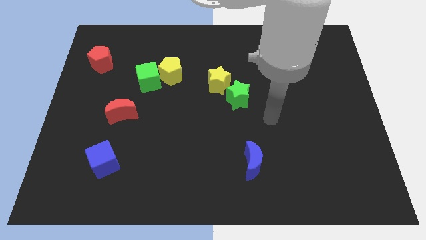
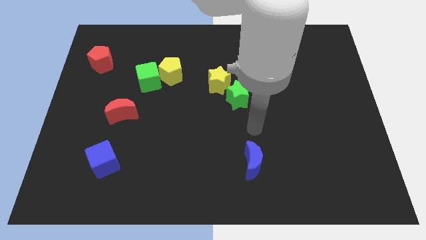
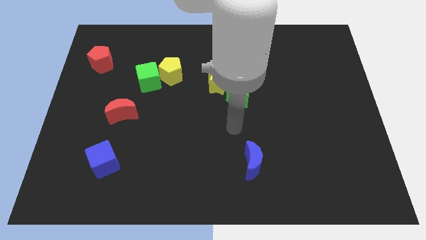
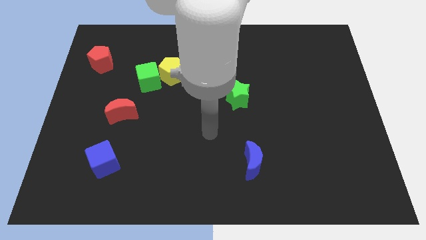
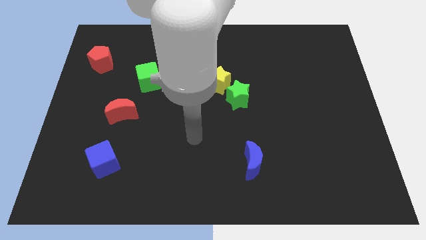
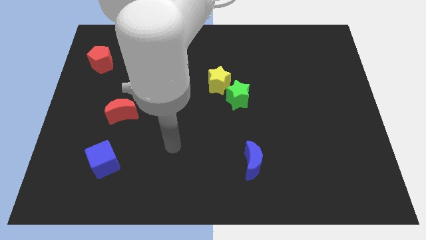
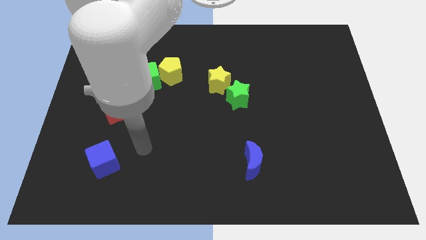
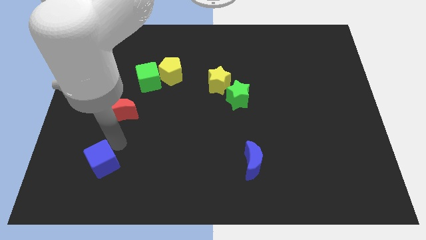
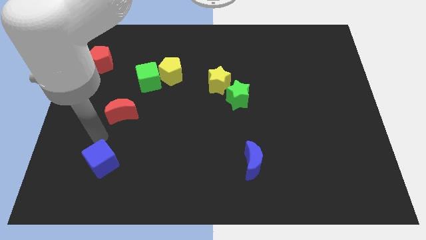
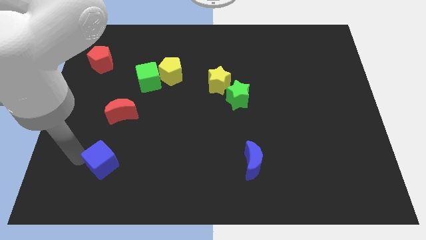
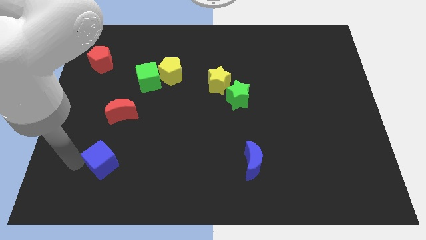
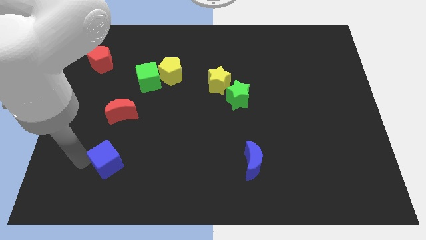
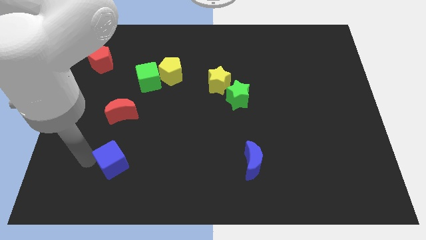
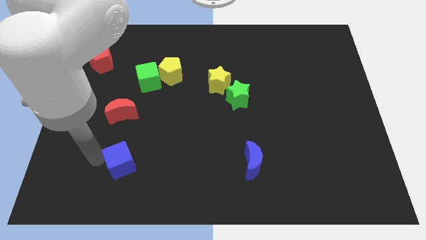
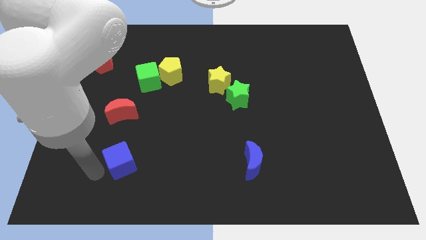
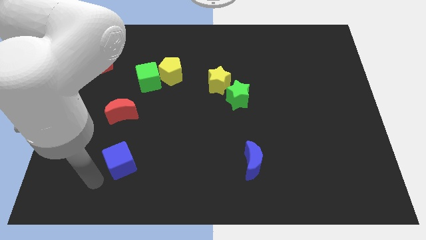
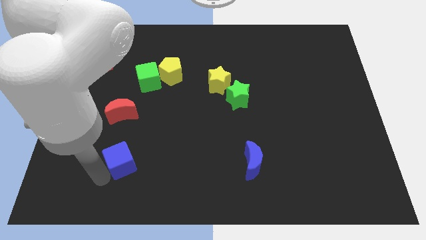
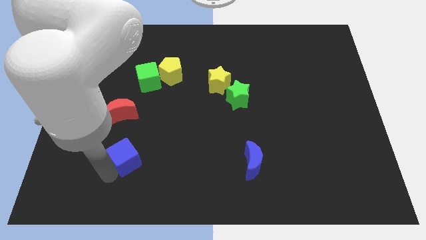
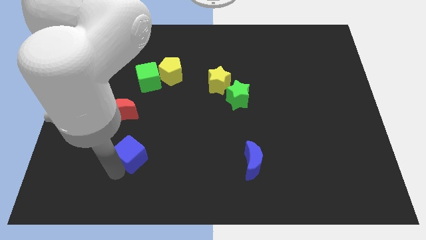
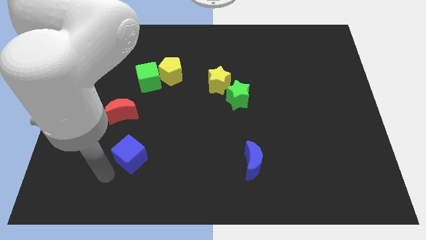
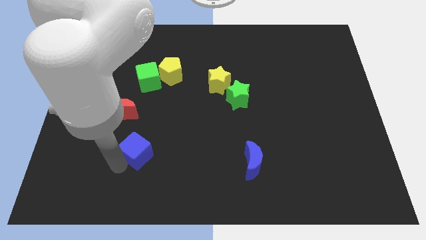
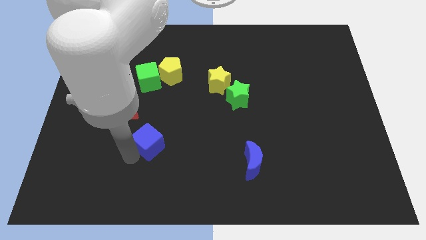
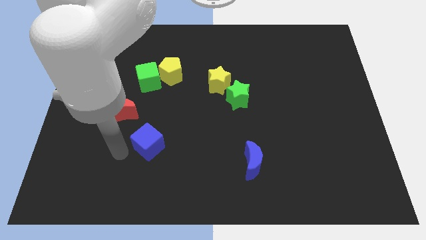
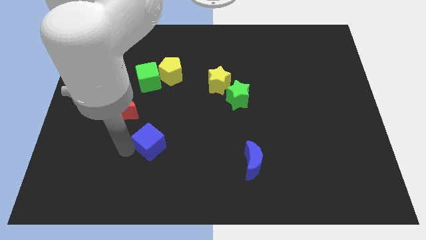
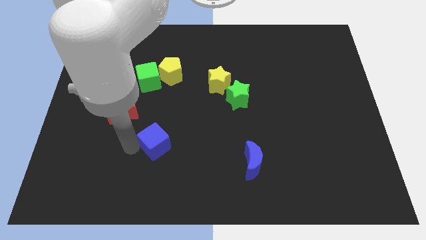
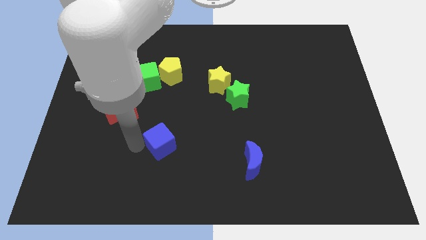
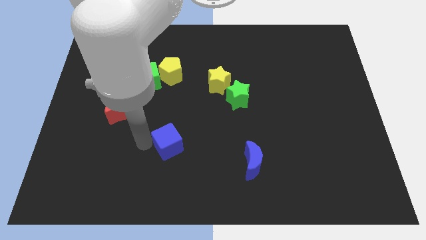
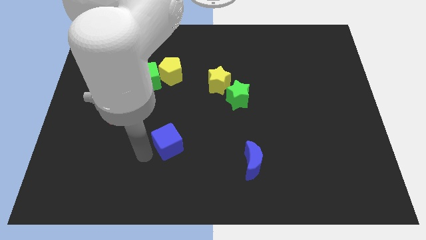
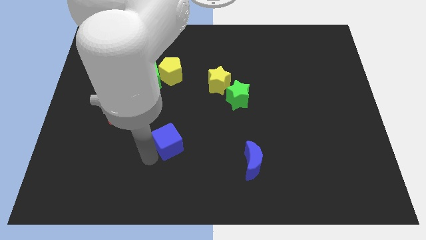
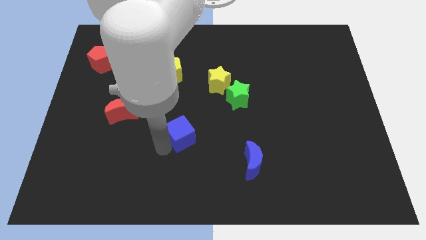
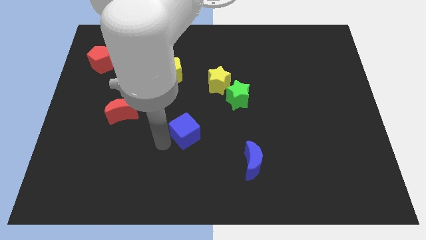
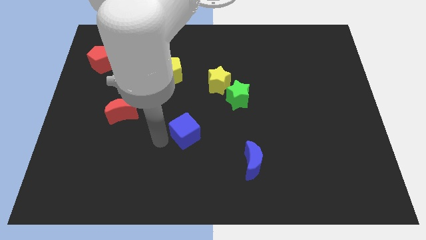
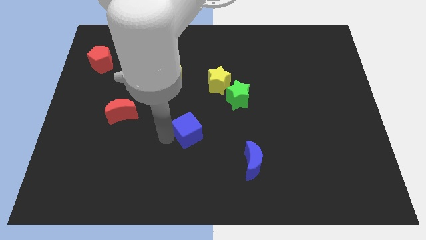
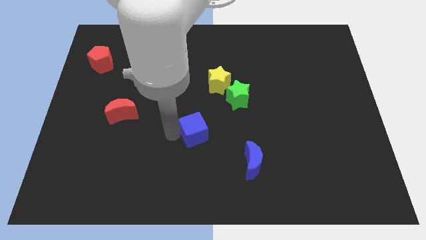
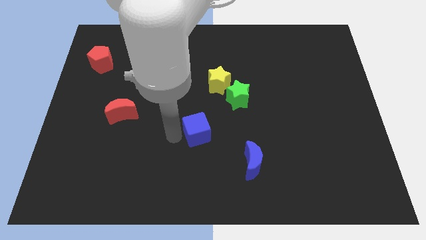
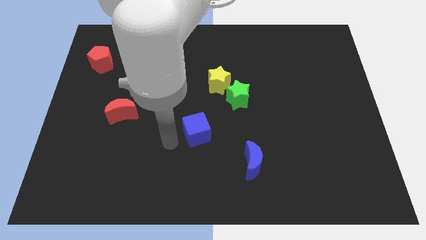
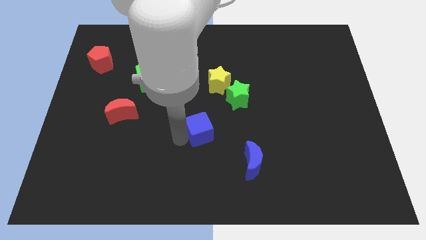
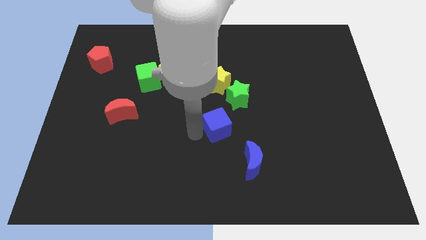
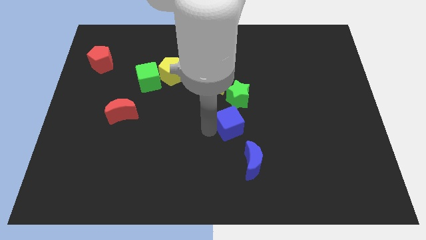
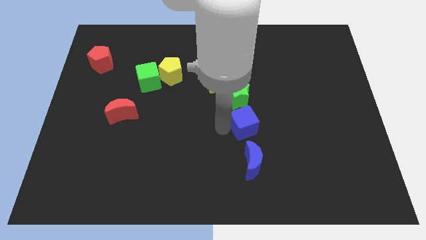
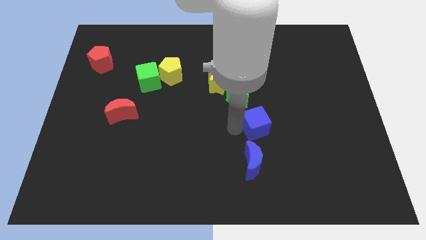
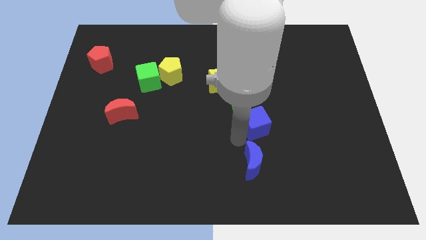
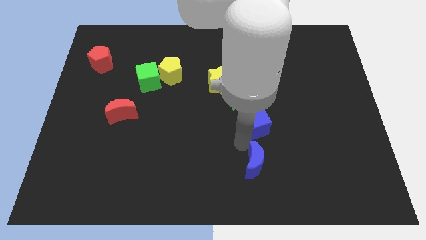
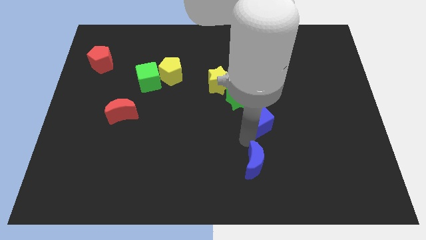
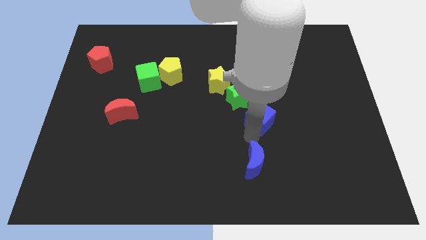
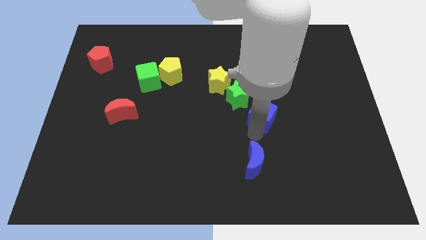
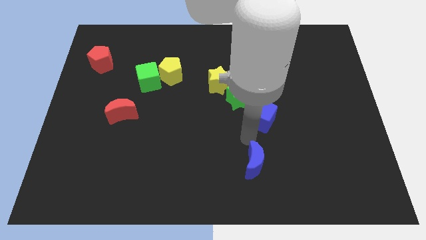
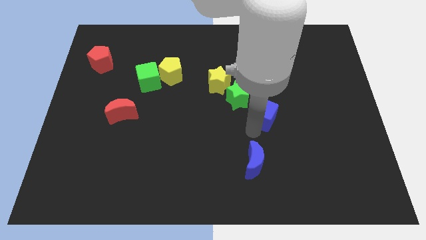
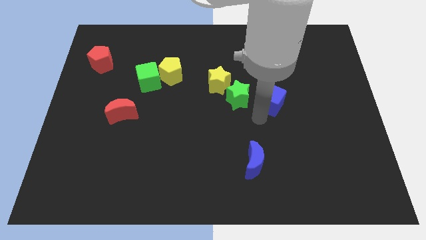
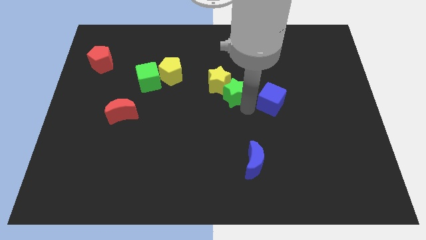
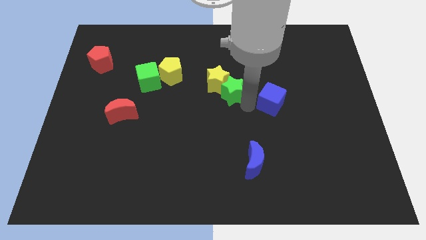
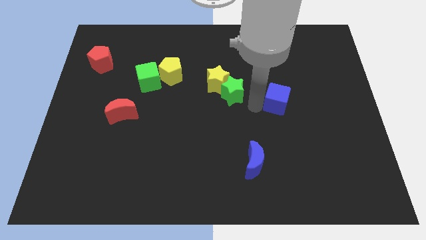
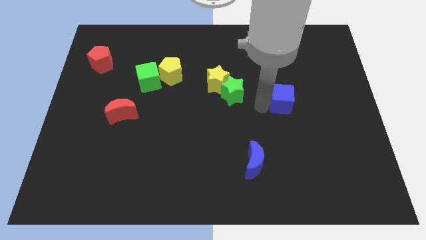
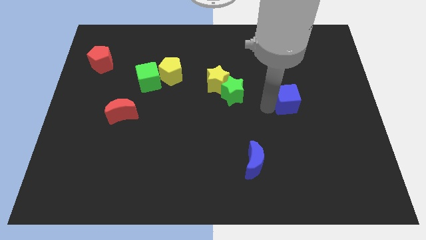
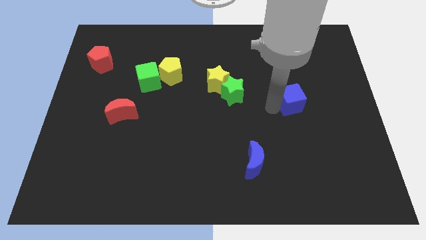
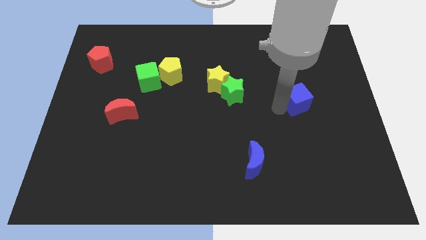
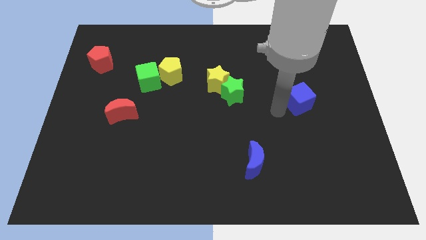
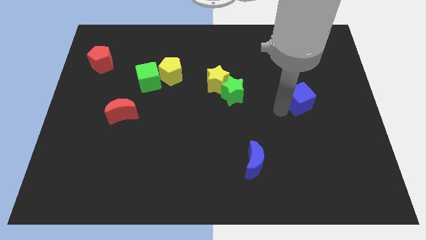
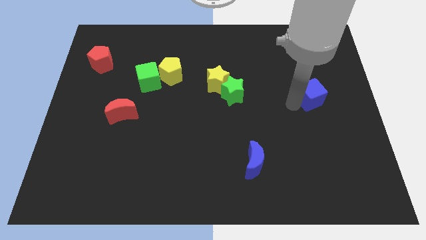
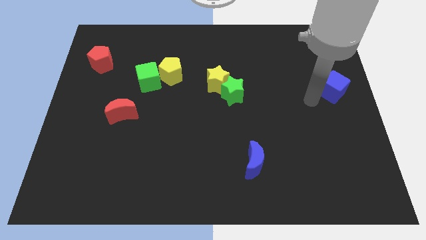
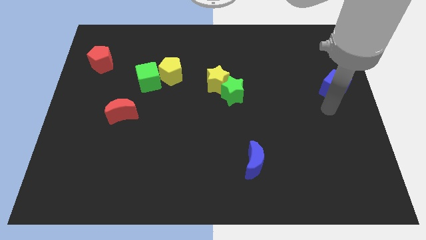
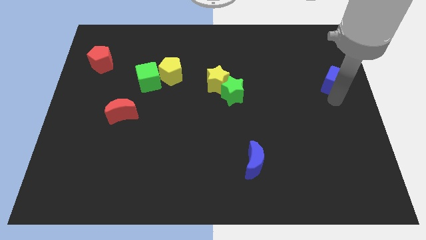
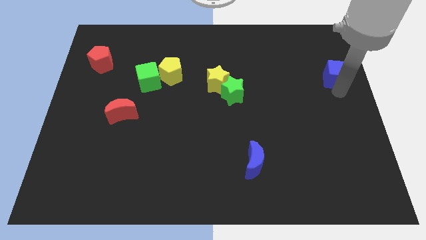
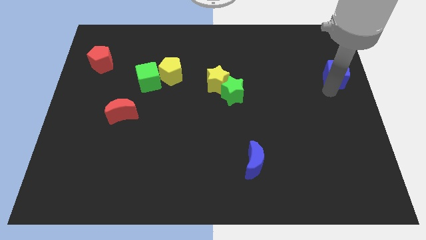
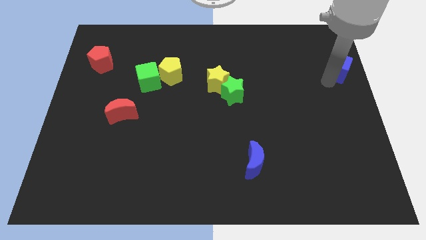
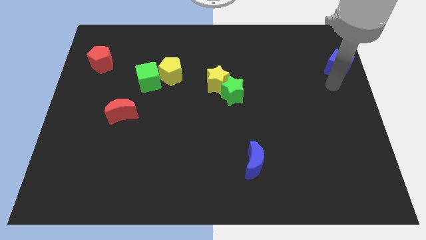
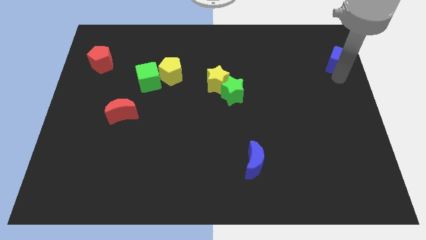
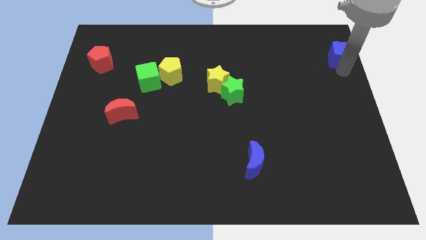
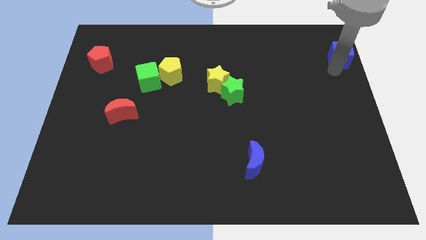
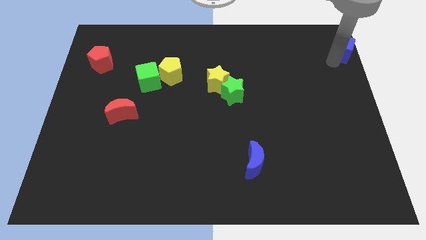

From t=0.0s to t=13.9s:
put the blue cube to the top right of the board
